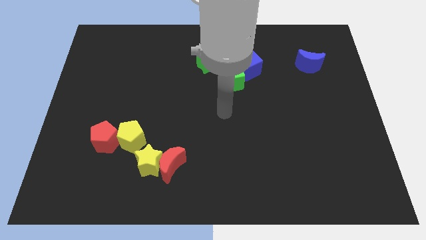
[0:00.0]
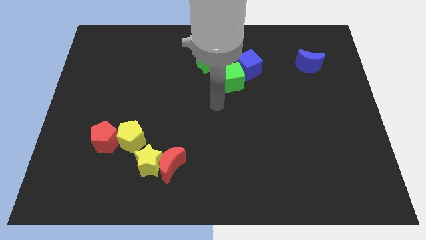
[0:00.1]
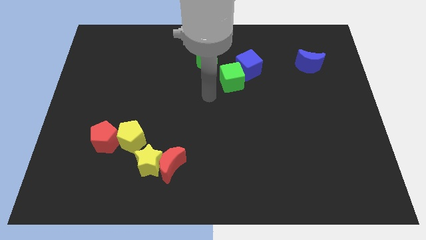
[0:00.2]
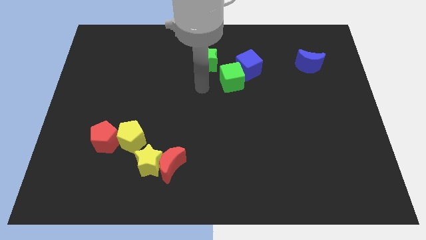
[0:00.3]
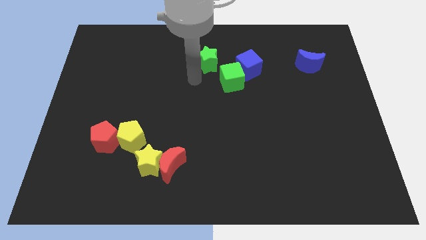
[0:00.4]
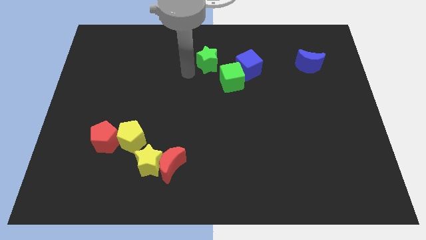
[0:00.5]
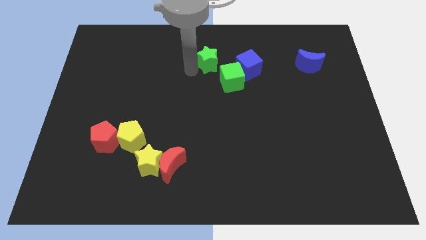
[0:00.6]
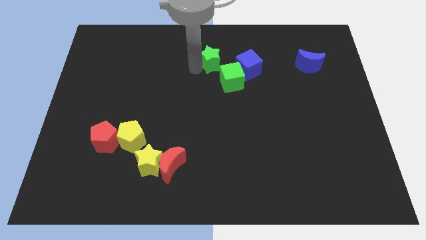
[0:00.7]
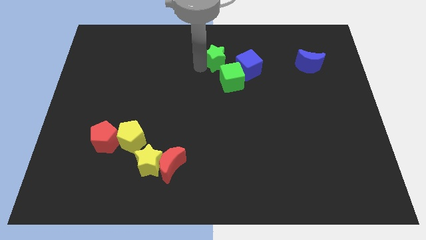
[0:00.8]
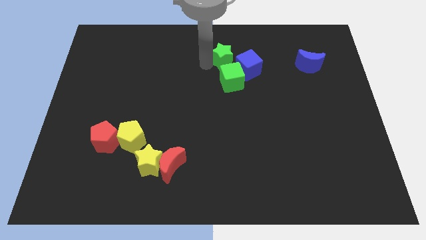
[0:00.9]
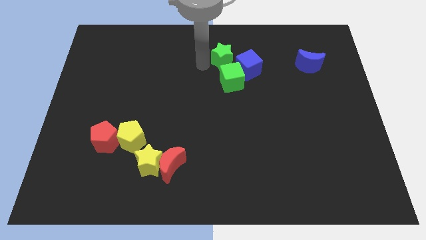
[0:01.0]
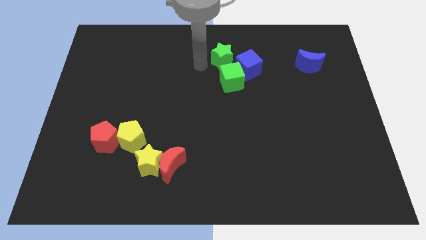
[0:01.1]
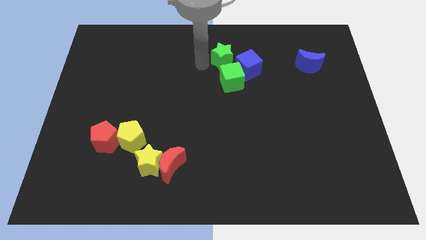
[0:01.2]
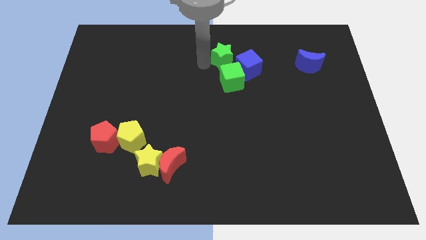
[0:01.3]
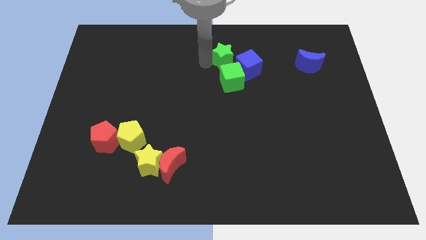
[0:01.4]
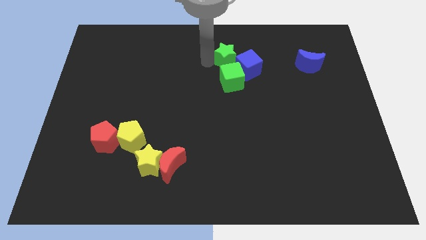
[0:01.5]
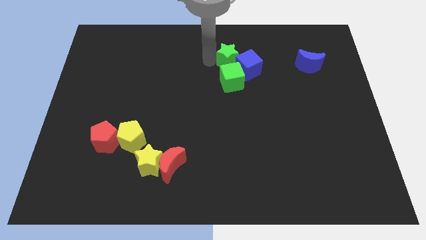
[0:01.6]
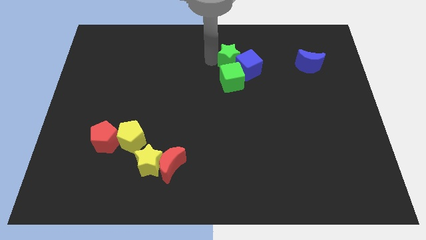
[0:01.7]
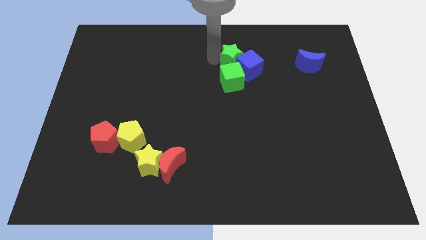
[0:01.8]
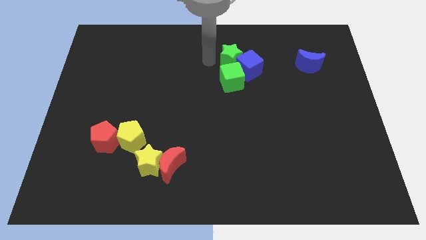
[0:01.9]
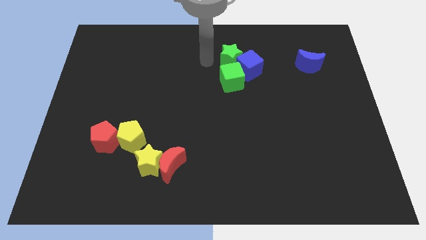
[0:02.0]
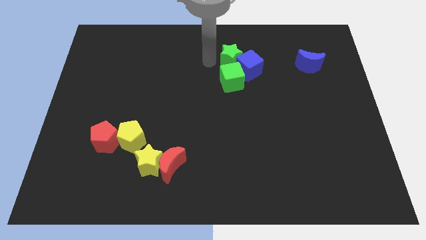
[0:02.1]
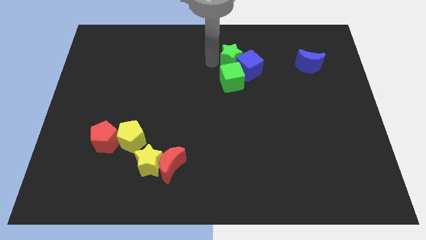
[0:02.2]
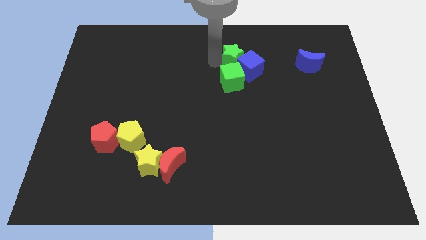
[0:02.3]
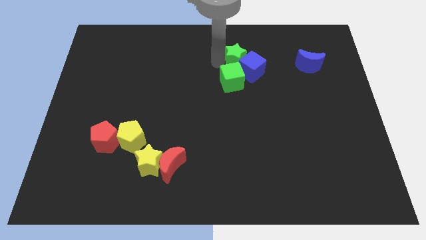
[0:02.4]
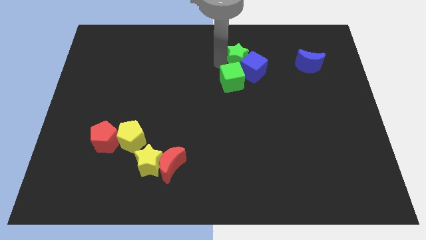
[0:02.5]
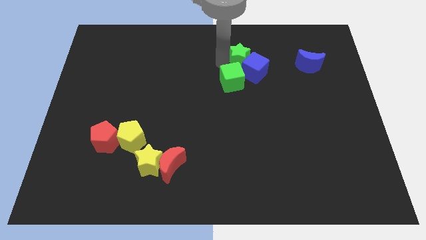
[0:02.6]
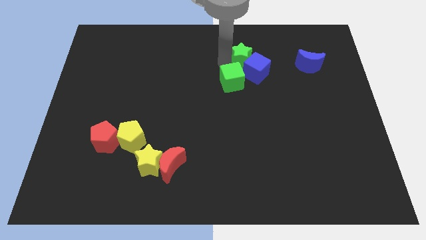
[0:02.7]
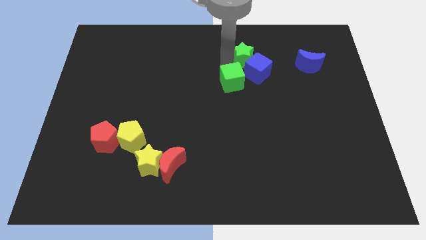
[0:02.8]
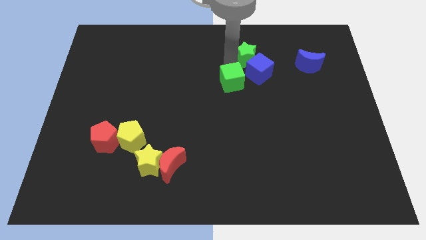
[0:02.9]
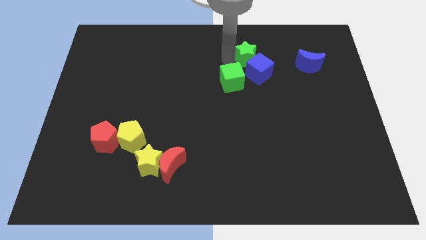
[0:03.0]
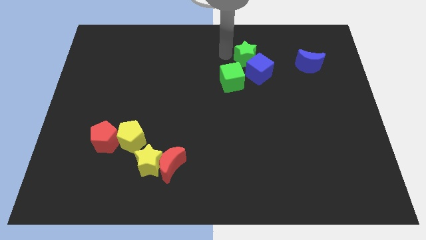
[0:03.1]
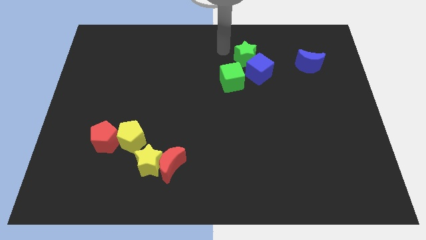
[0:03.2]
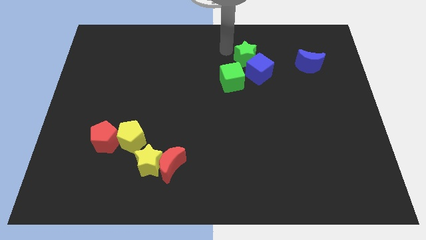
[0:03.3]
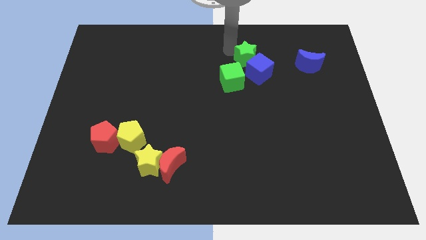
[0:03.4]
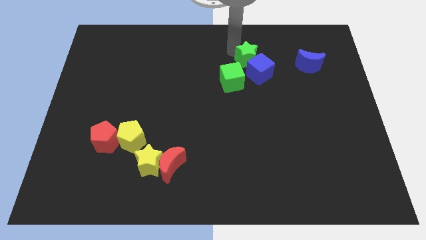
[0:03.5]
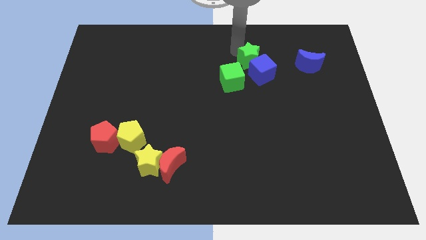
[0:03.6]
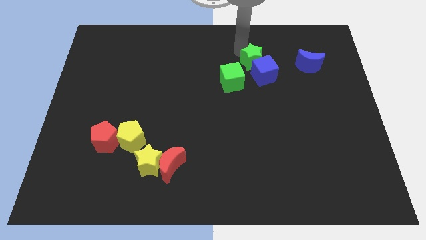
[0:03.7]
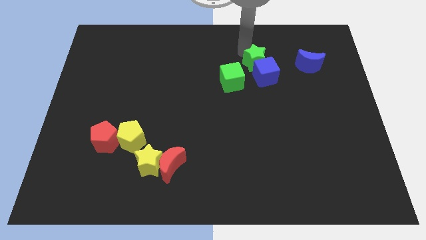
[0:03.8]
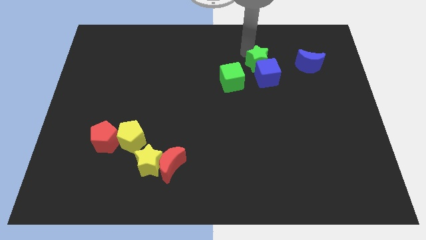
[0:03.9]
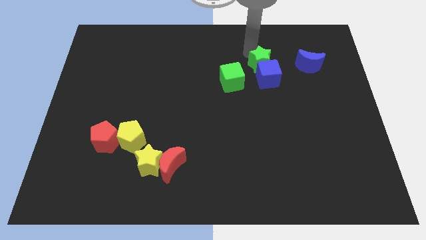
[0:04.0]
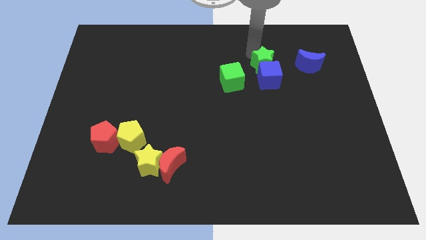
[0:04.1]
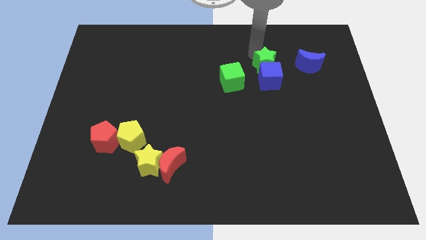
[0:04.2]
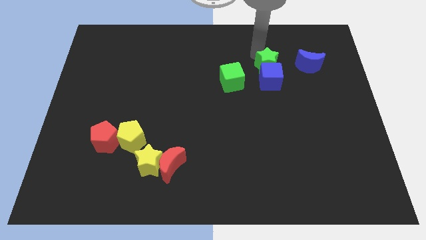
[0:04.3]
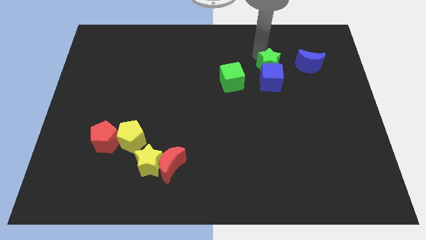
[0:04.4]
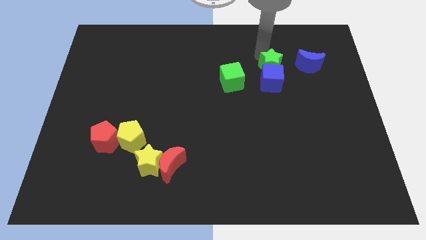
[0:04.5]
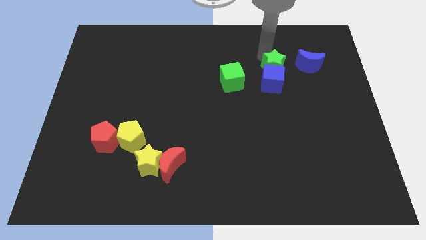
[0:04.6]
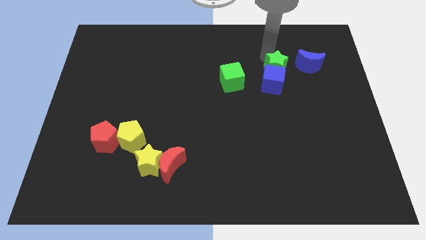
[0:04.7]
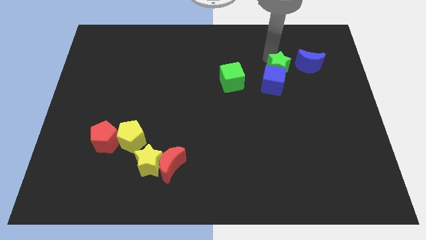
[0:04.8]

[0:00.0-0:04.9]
put the green star diagonally down and to the left of the blue moon

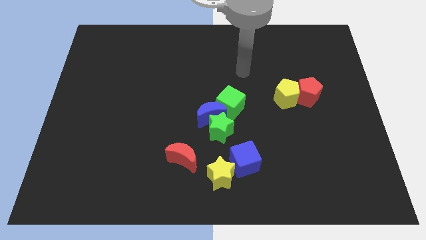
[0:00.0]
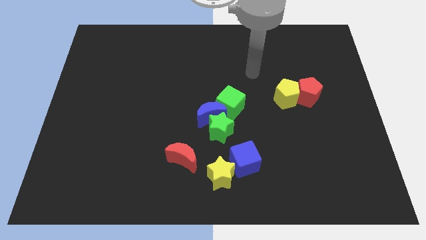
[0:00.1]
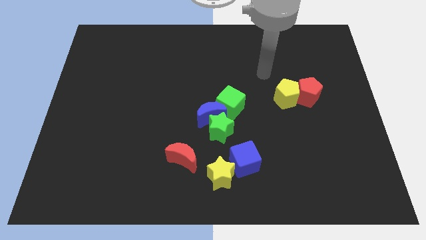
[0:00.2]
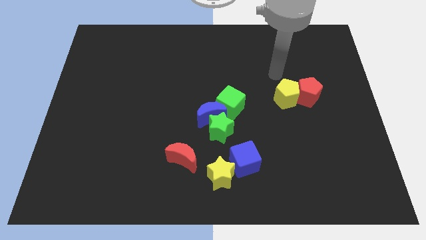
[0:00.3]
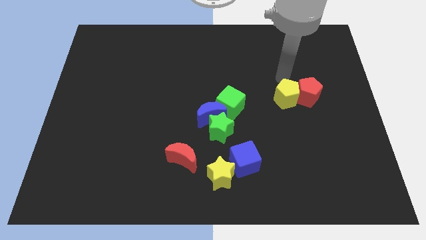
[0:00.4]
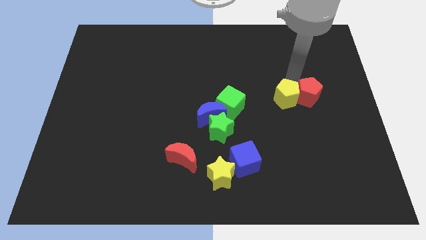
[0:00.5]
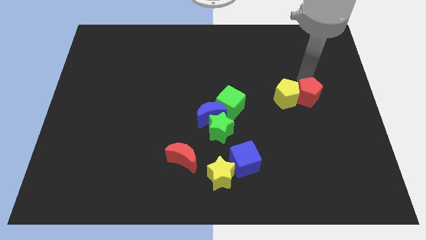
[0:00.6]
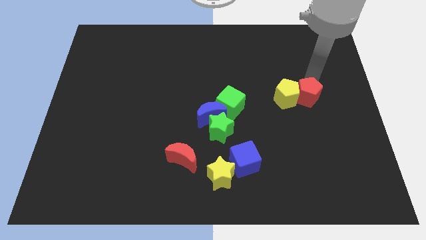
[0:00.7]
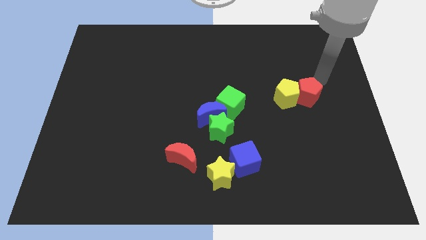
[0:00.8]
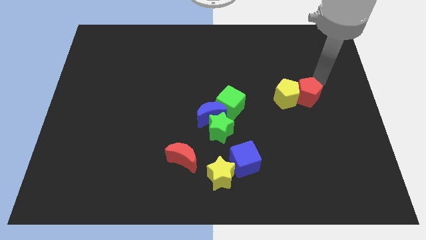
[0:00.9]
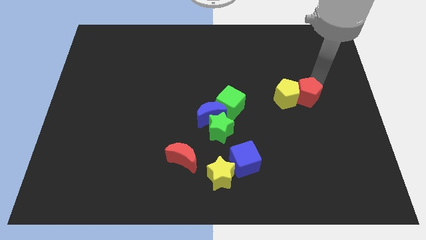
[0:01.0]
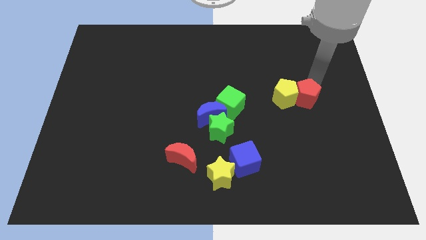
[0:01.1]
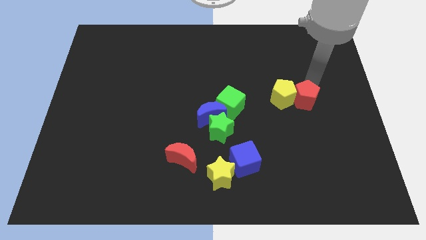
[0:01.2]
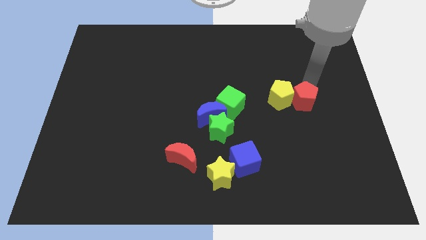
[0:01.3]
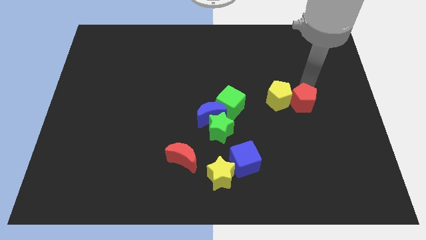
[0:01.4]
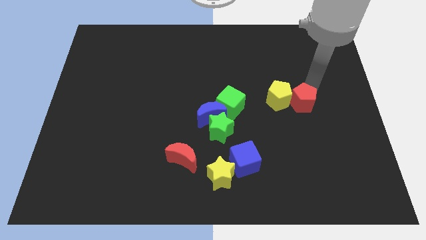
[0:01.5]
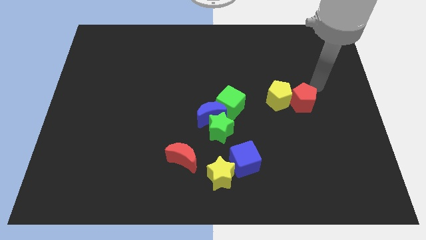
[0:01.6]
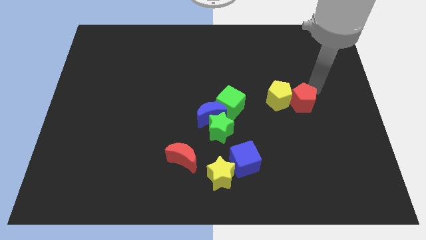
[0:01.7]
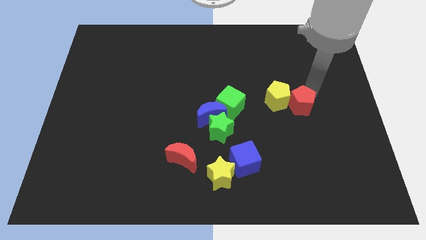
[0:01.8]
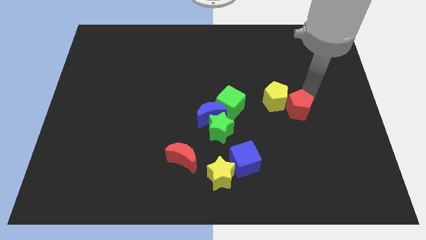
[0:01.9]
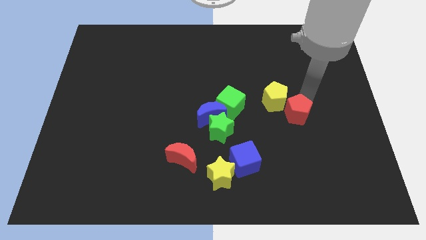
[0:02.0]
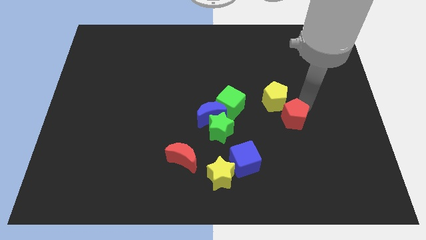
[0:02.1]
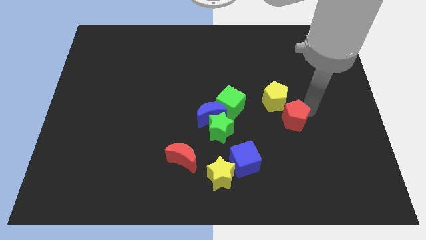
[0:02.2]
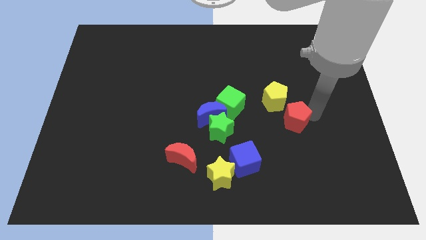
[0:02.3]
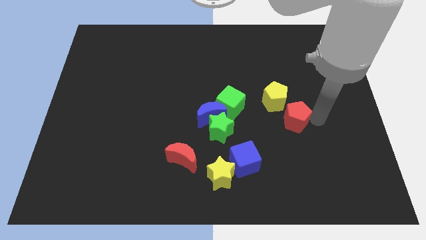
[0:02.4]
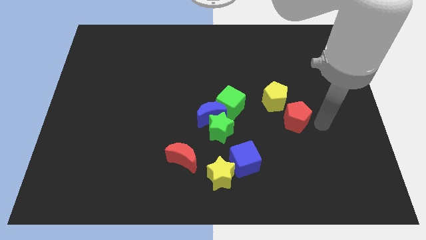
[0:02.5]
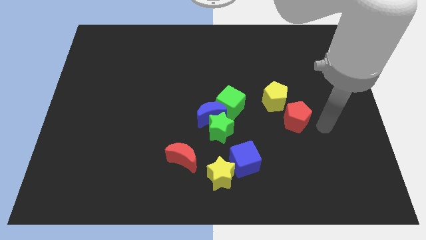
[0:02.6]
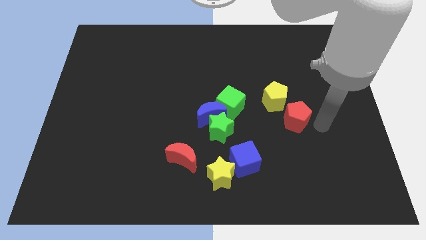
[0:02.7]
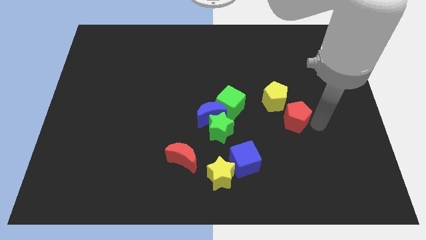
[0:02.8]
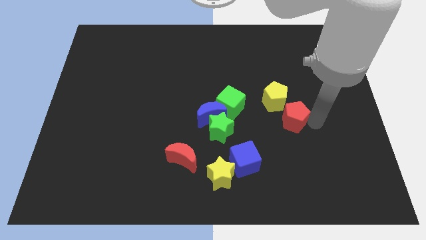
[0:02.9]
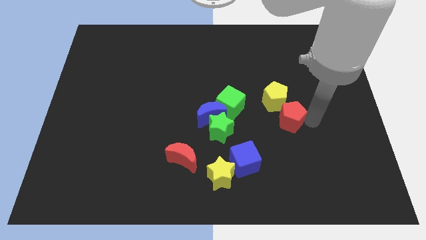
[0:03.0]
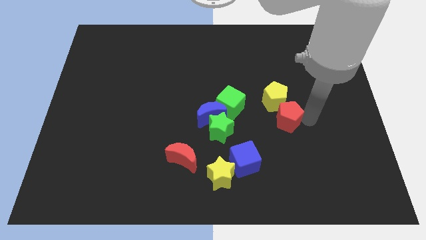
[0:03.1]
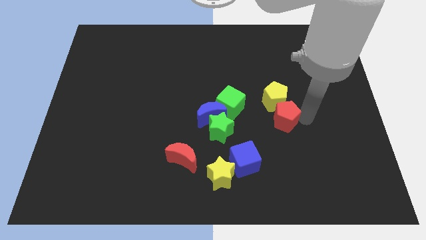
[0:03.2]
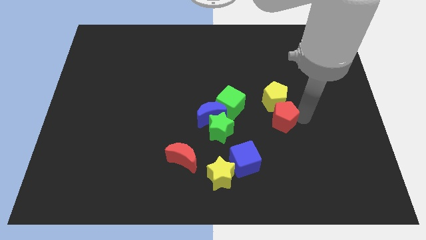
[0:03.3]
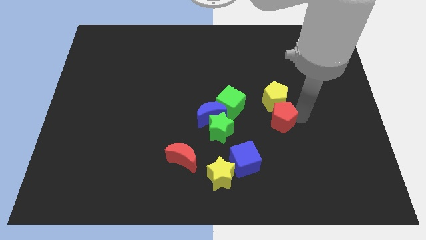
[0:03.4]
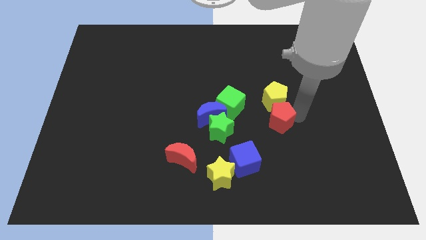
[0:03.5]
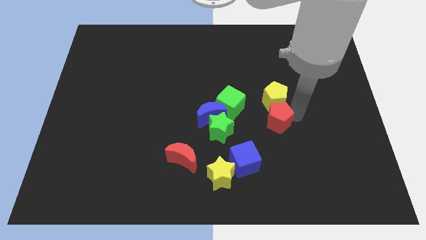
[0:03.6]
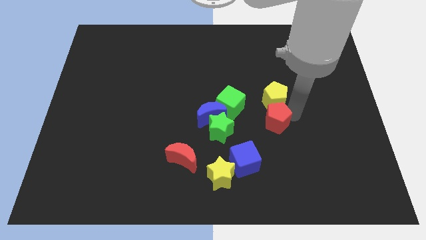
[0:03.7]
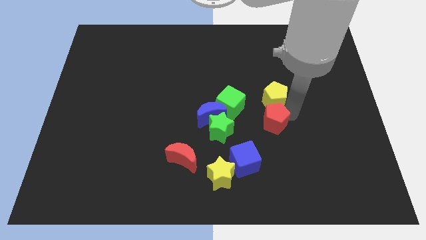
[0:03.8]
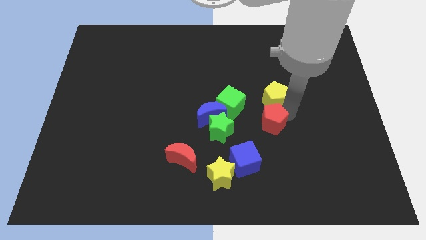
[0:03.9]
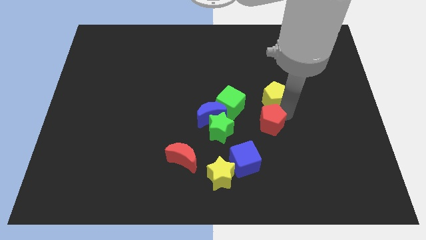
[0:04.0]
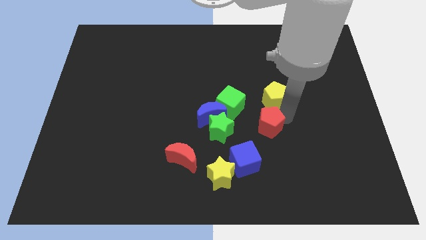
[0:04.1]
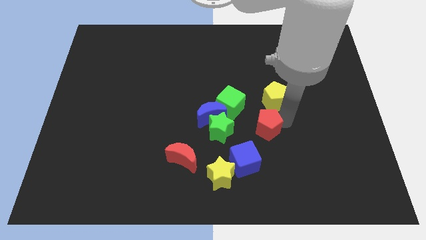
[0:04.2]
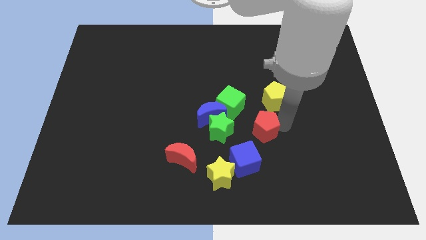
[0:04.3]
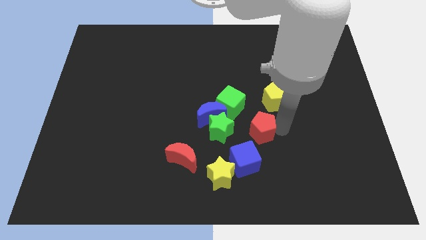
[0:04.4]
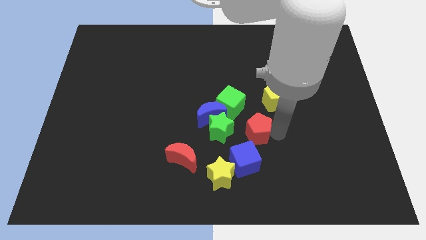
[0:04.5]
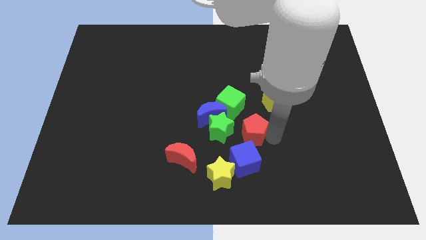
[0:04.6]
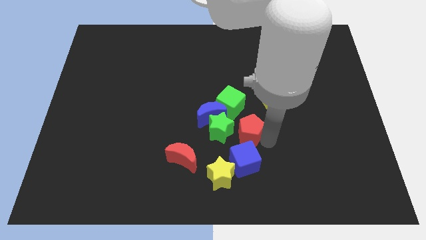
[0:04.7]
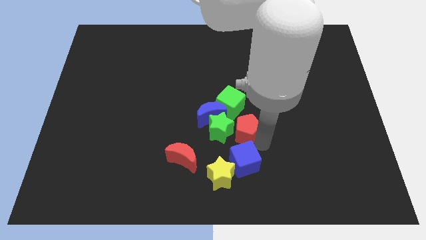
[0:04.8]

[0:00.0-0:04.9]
slide the red pentagon to the top right of the green star
